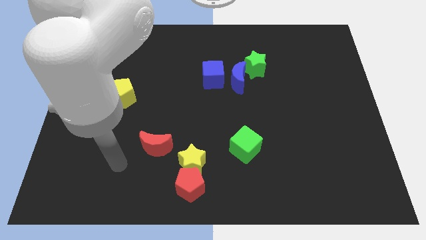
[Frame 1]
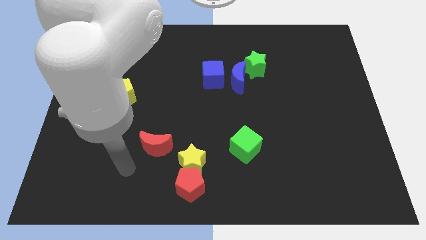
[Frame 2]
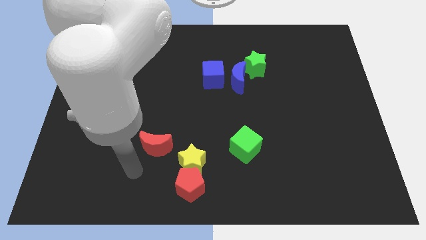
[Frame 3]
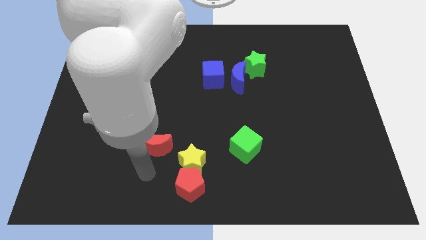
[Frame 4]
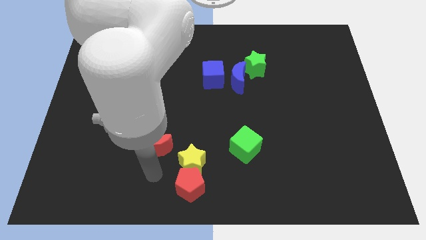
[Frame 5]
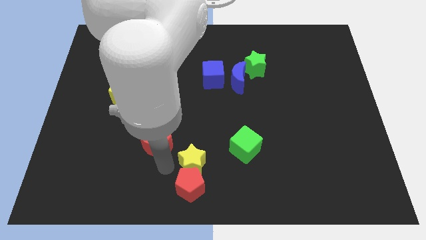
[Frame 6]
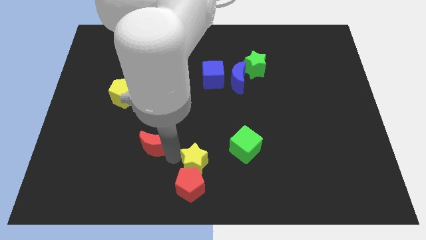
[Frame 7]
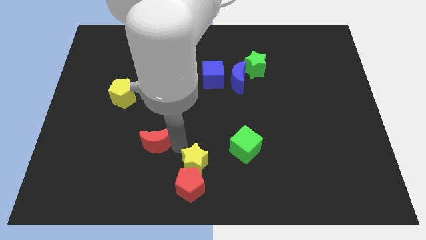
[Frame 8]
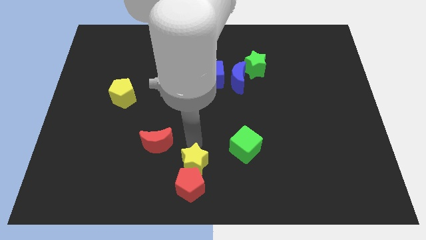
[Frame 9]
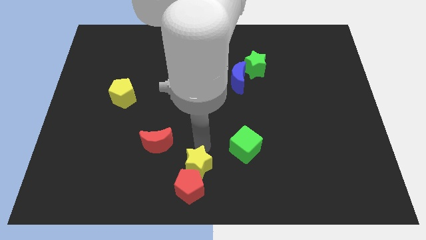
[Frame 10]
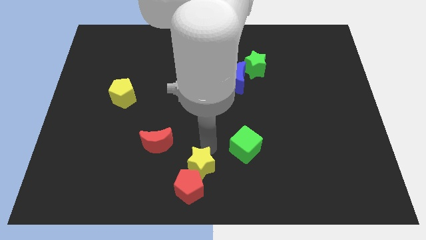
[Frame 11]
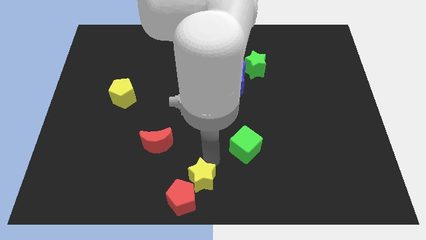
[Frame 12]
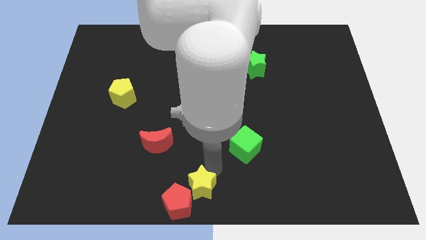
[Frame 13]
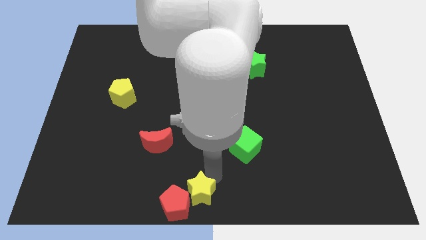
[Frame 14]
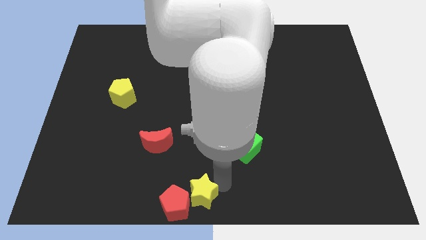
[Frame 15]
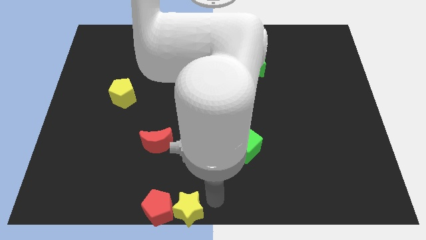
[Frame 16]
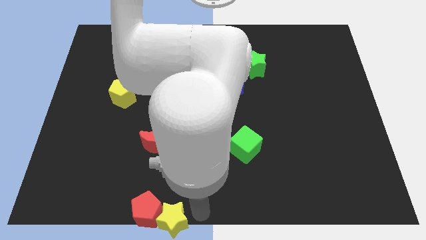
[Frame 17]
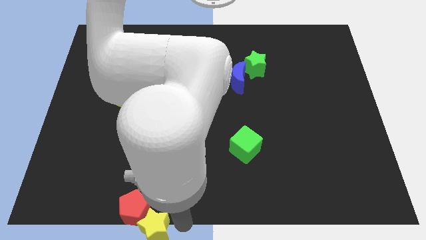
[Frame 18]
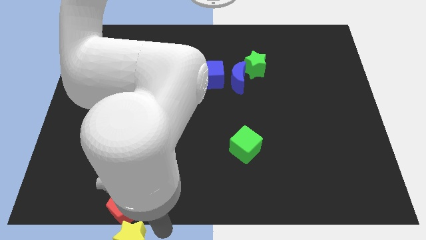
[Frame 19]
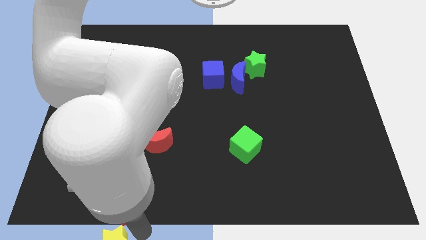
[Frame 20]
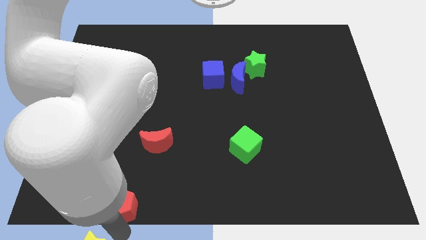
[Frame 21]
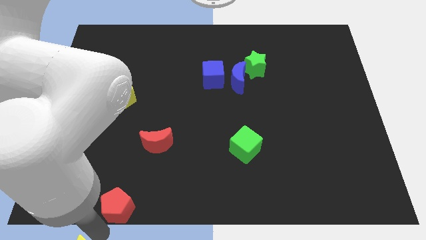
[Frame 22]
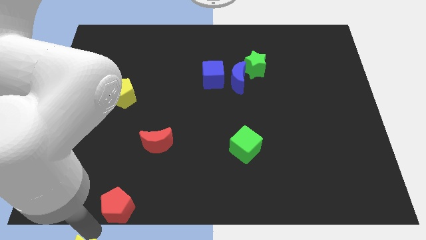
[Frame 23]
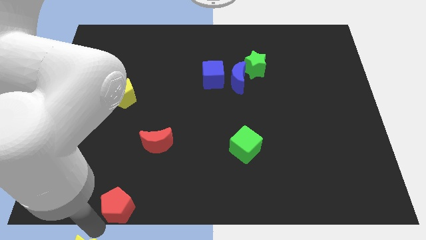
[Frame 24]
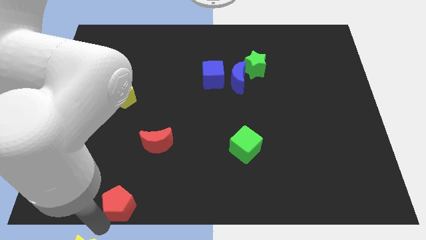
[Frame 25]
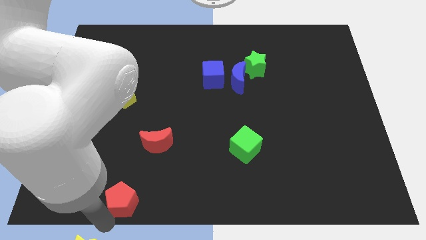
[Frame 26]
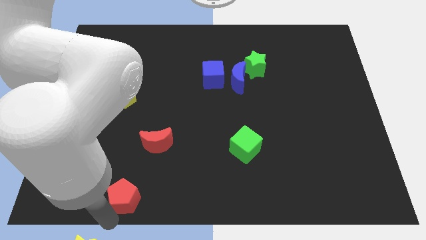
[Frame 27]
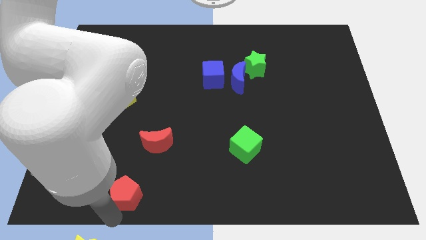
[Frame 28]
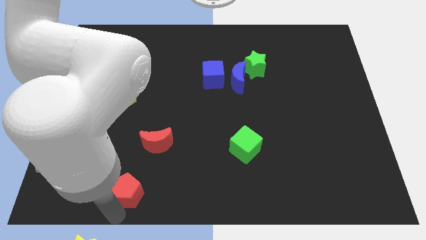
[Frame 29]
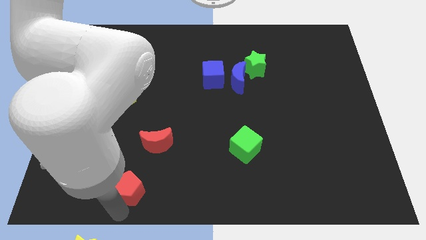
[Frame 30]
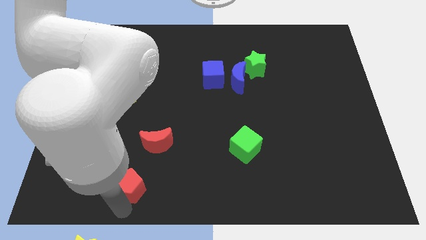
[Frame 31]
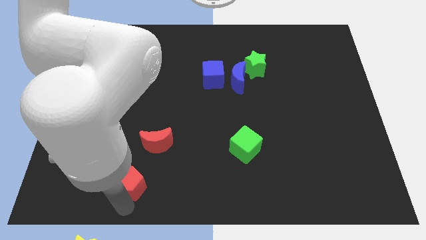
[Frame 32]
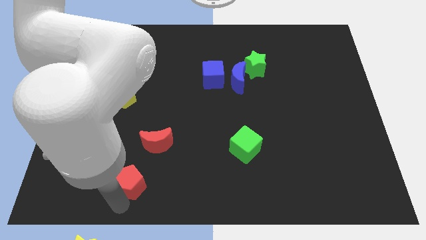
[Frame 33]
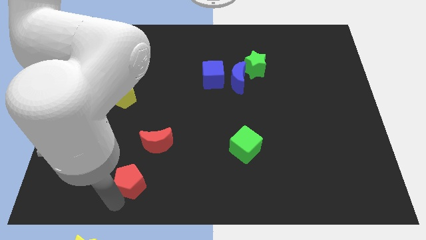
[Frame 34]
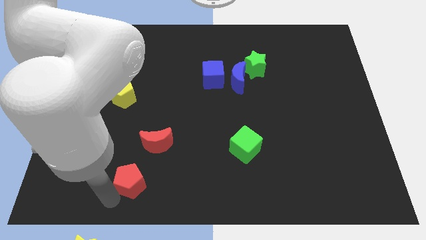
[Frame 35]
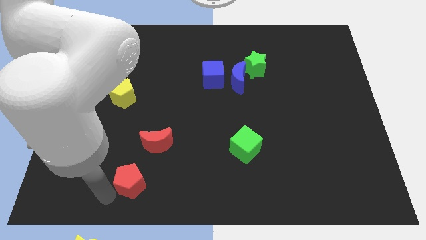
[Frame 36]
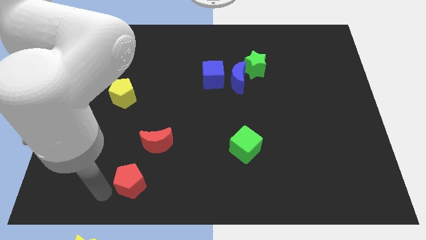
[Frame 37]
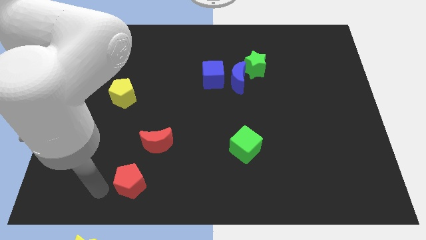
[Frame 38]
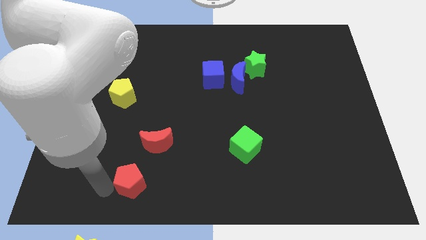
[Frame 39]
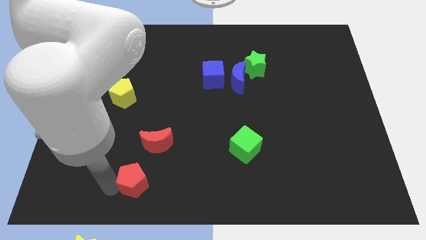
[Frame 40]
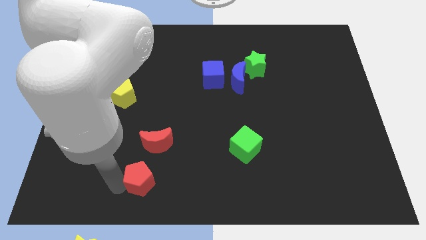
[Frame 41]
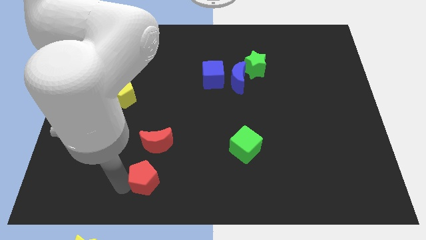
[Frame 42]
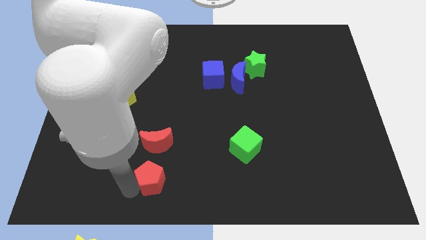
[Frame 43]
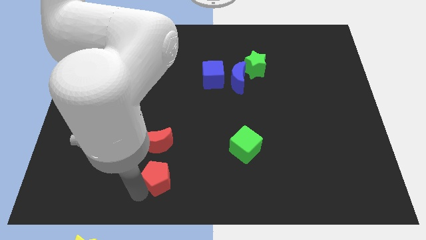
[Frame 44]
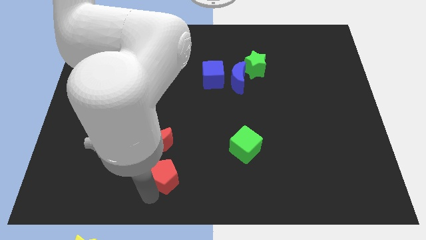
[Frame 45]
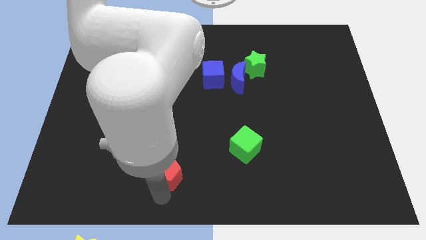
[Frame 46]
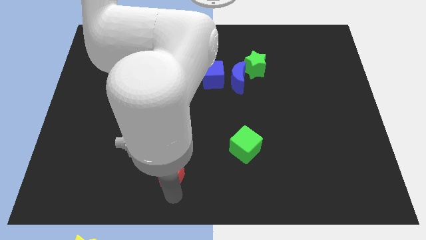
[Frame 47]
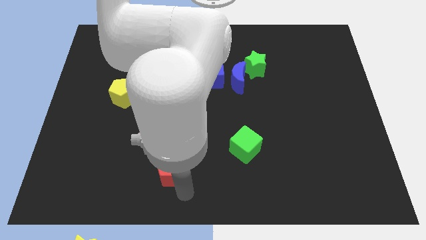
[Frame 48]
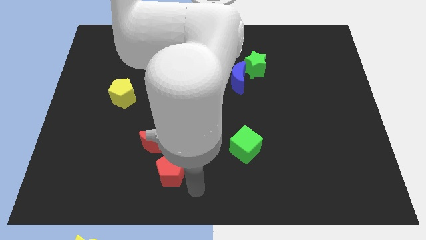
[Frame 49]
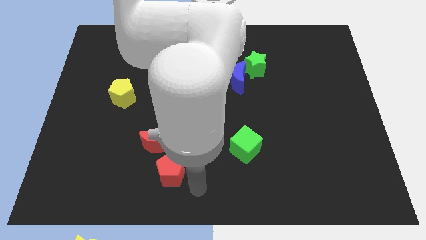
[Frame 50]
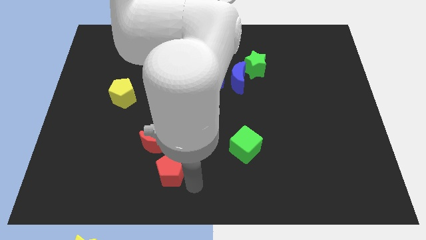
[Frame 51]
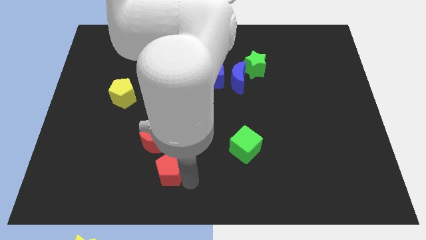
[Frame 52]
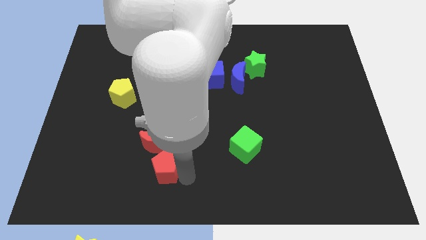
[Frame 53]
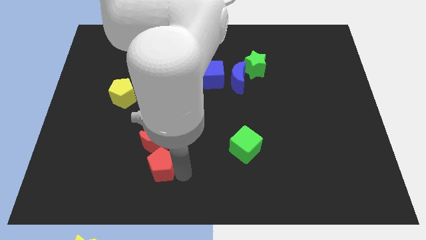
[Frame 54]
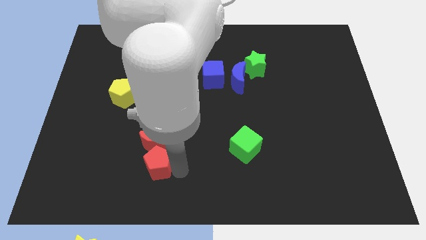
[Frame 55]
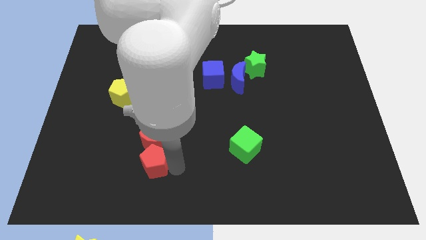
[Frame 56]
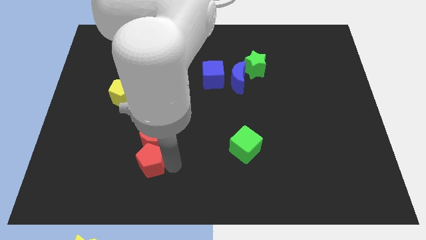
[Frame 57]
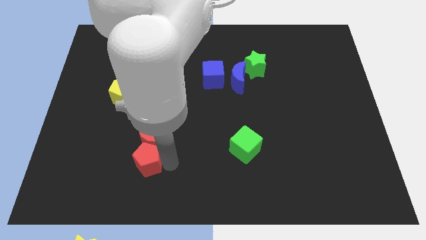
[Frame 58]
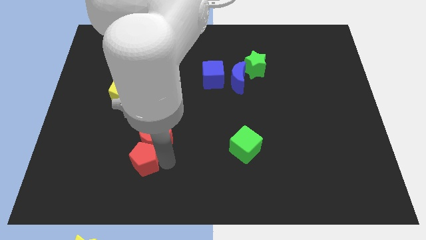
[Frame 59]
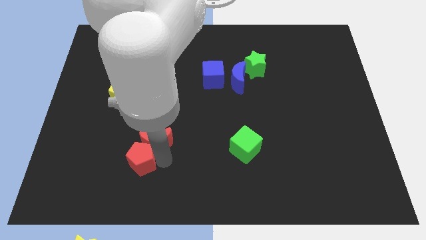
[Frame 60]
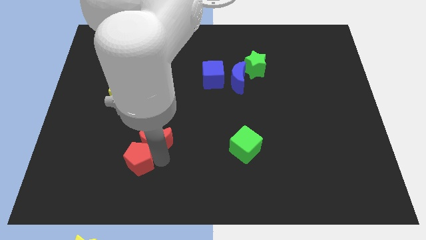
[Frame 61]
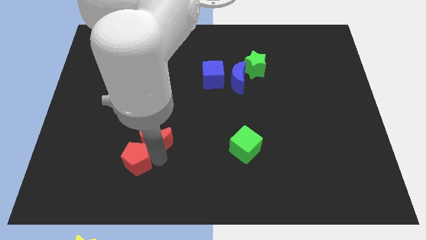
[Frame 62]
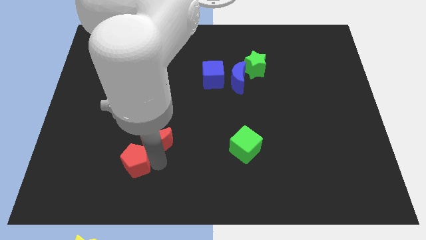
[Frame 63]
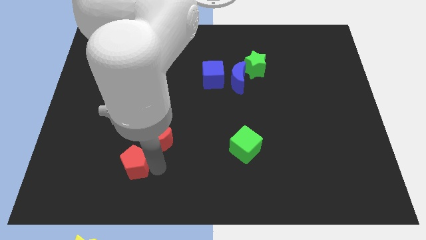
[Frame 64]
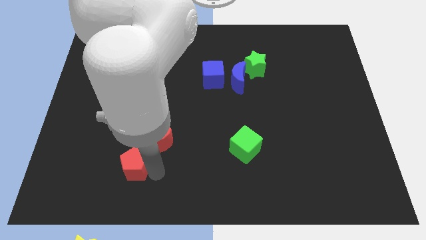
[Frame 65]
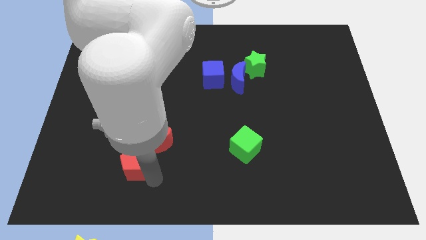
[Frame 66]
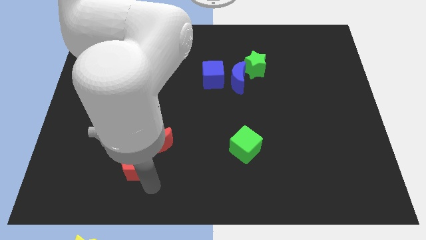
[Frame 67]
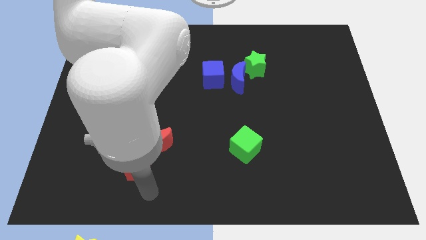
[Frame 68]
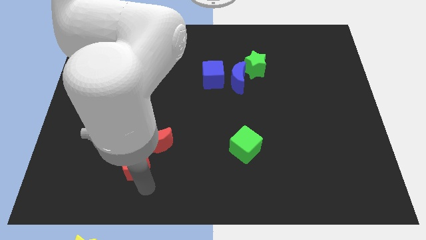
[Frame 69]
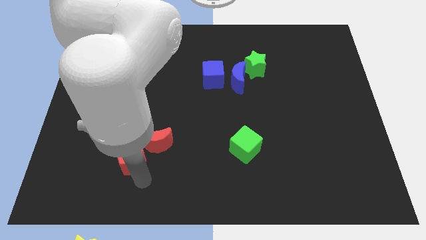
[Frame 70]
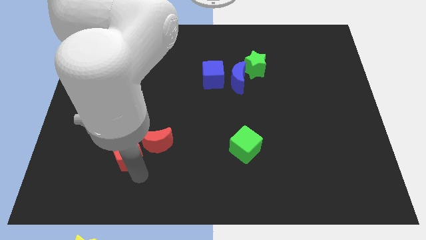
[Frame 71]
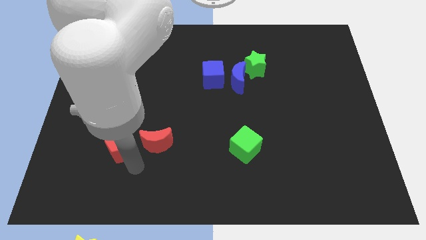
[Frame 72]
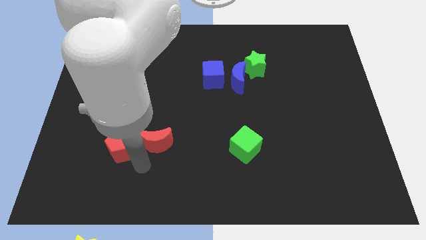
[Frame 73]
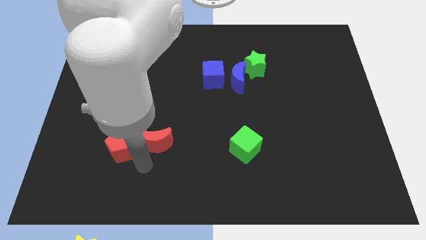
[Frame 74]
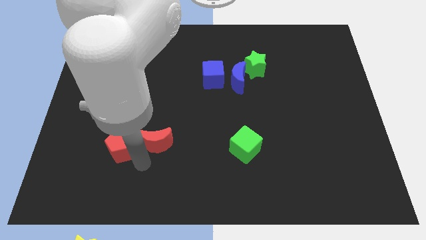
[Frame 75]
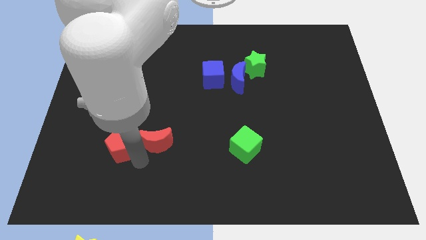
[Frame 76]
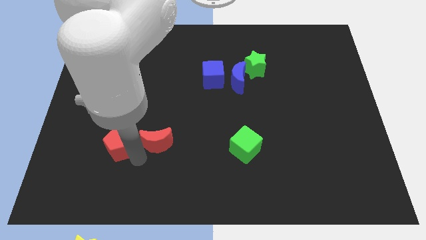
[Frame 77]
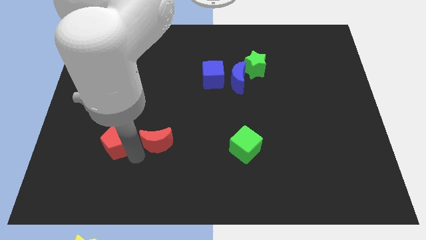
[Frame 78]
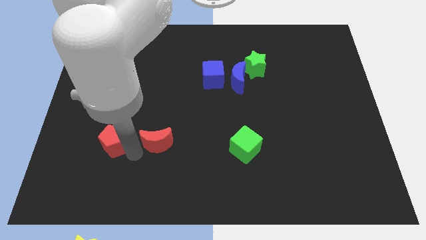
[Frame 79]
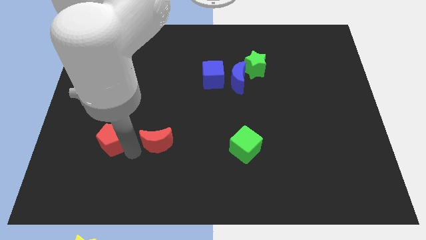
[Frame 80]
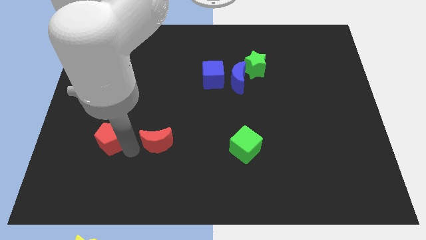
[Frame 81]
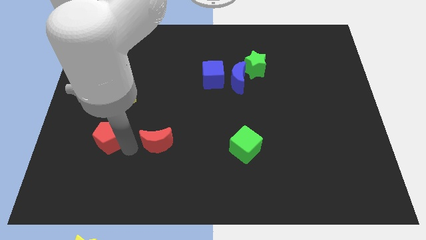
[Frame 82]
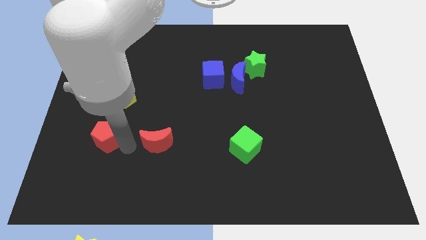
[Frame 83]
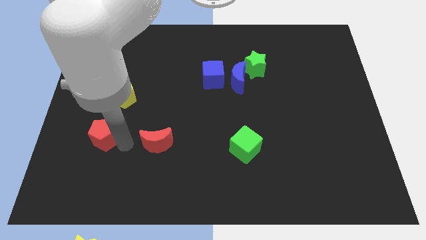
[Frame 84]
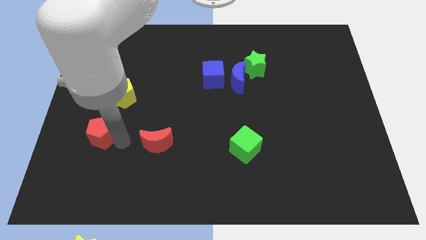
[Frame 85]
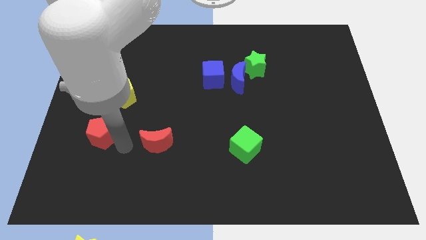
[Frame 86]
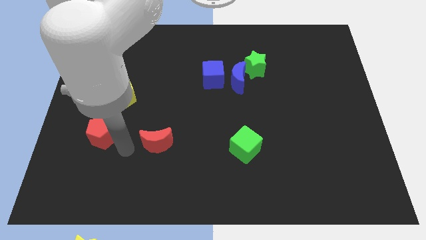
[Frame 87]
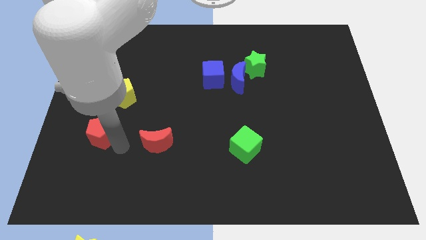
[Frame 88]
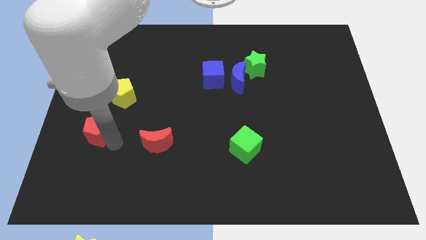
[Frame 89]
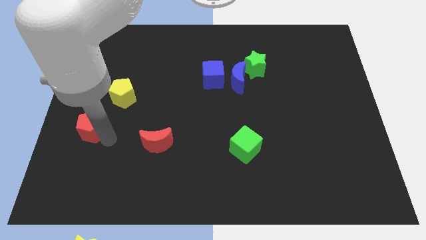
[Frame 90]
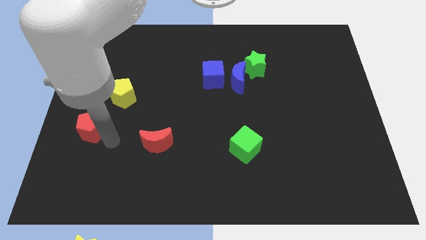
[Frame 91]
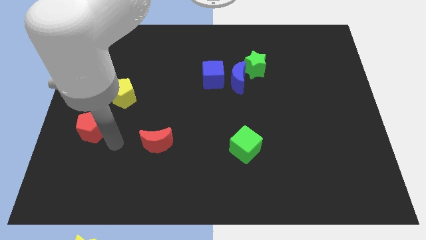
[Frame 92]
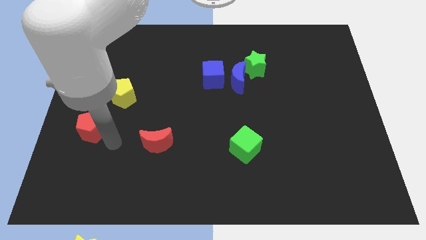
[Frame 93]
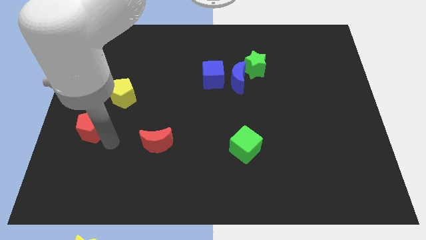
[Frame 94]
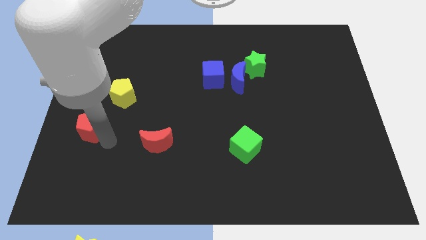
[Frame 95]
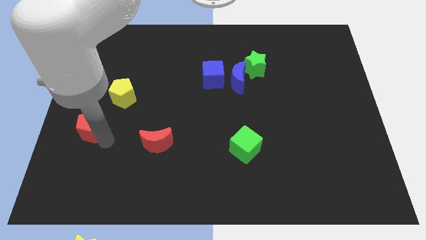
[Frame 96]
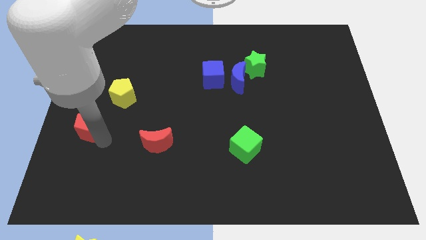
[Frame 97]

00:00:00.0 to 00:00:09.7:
put the red pentagon to the left side of the board
